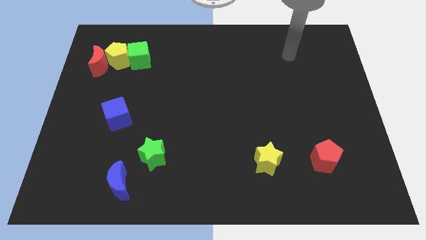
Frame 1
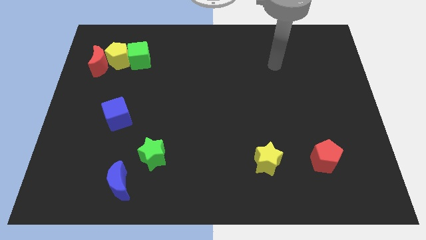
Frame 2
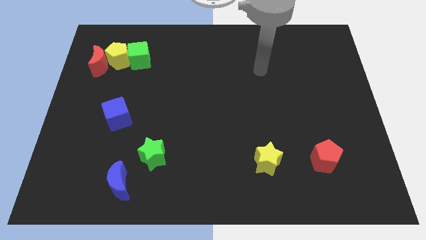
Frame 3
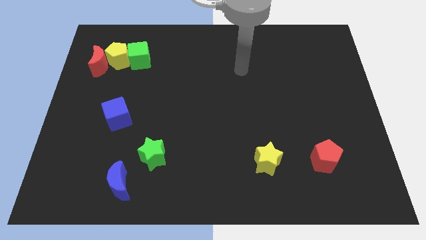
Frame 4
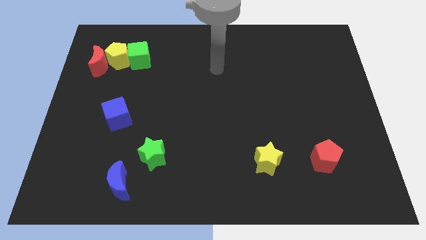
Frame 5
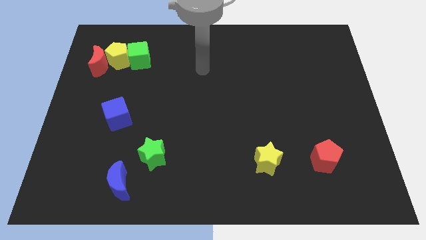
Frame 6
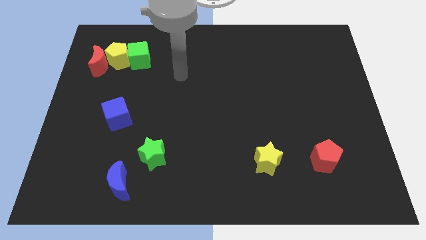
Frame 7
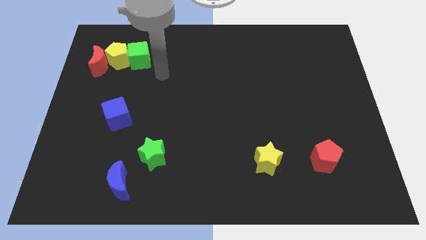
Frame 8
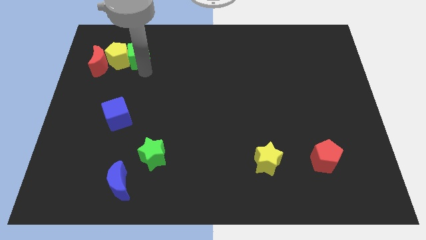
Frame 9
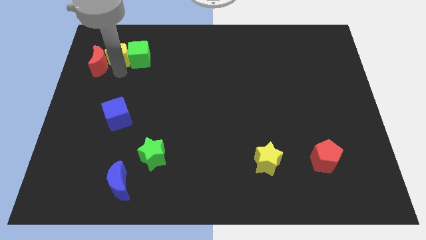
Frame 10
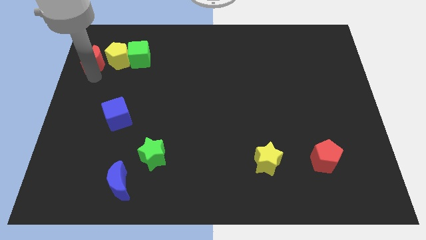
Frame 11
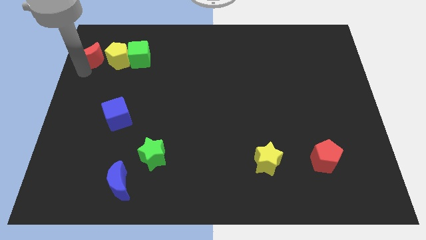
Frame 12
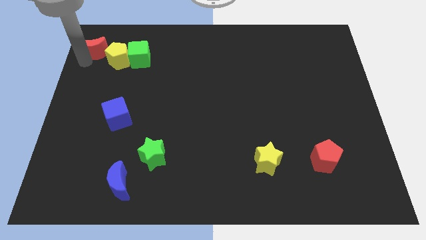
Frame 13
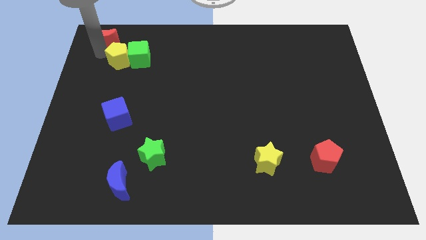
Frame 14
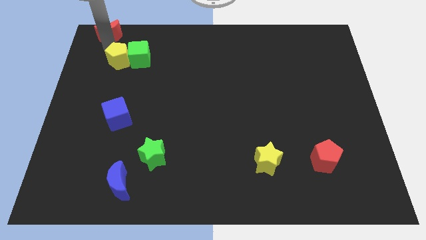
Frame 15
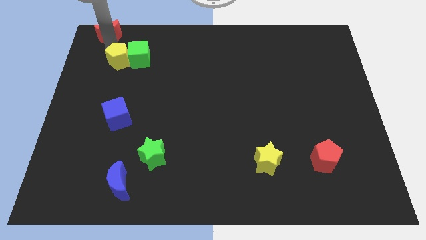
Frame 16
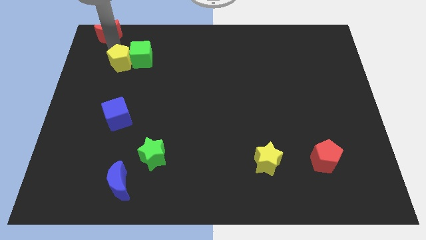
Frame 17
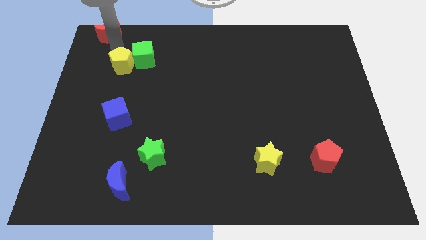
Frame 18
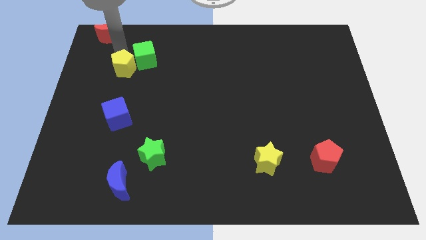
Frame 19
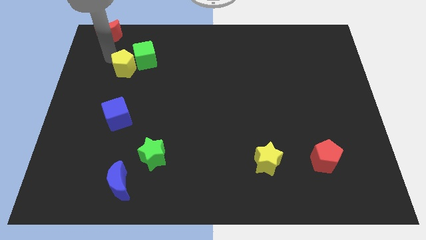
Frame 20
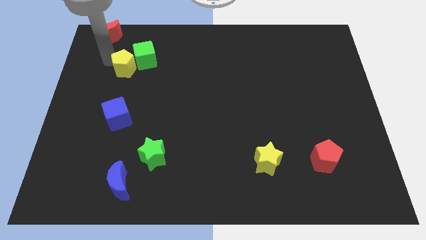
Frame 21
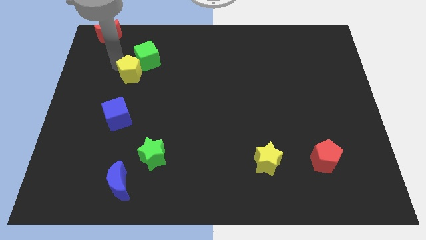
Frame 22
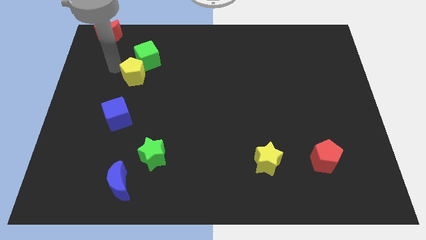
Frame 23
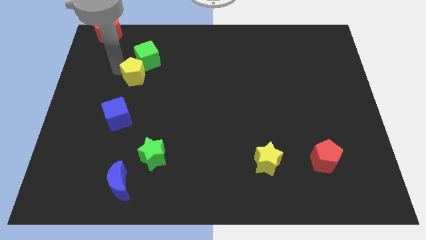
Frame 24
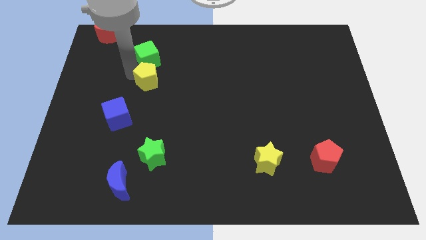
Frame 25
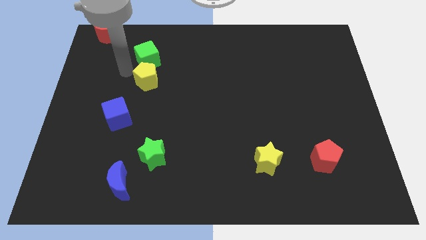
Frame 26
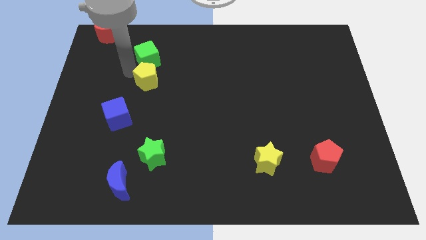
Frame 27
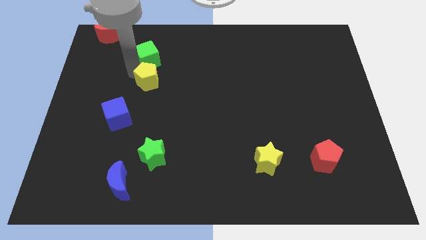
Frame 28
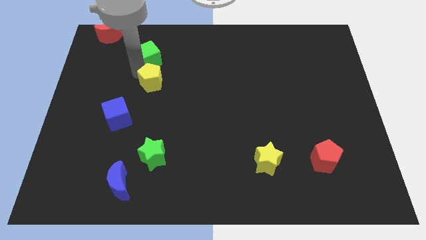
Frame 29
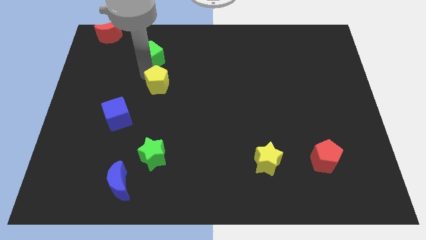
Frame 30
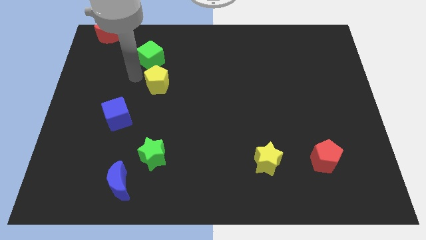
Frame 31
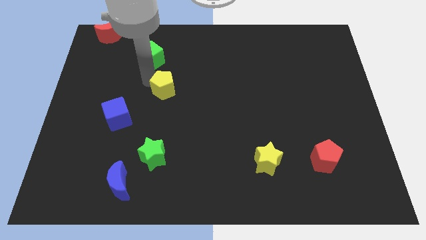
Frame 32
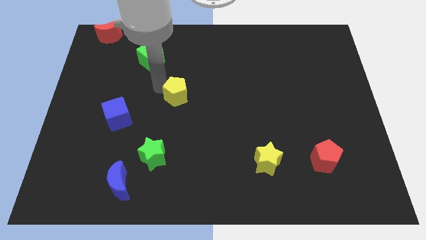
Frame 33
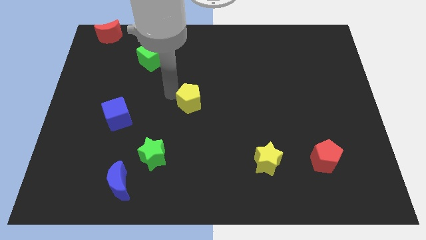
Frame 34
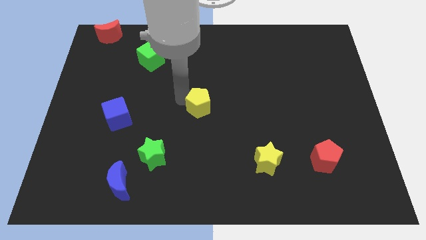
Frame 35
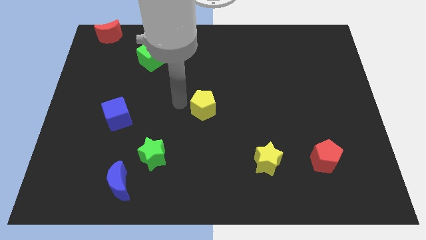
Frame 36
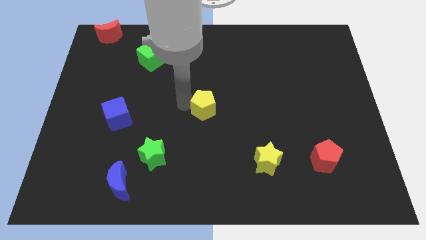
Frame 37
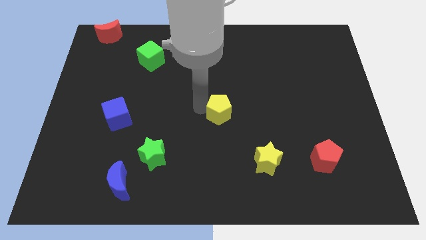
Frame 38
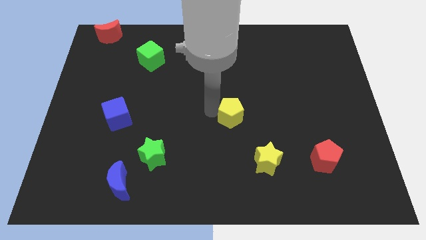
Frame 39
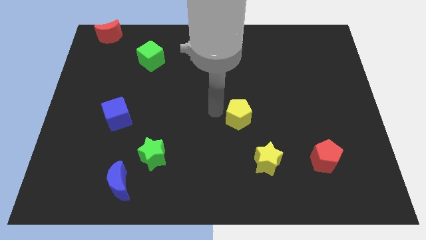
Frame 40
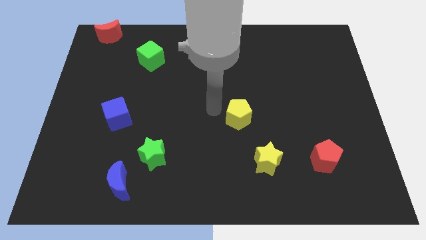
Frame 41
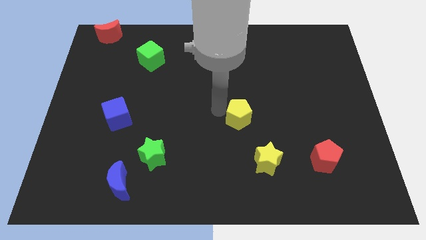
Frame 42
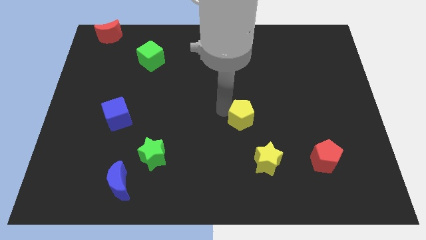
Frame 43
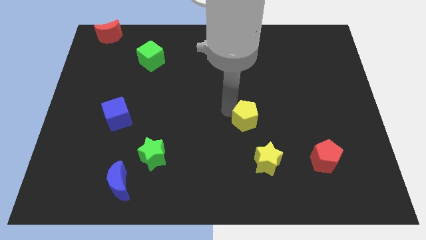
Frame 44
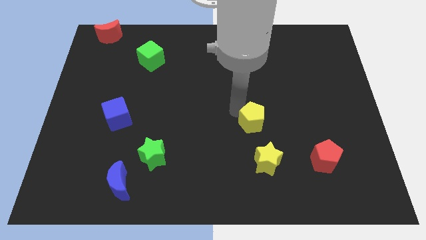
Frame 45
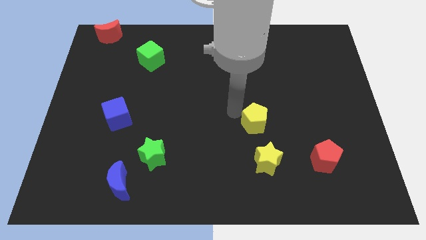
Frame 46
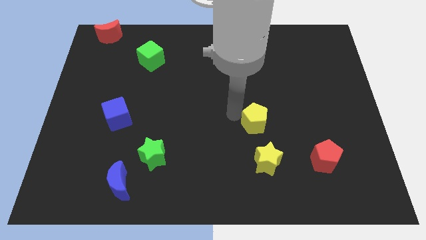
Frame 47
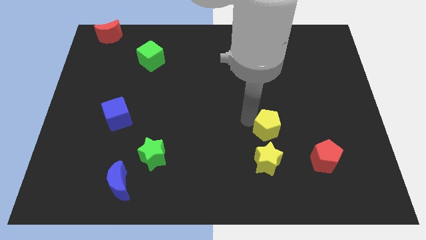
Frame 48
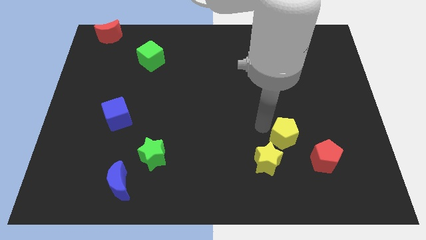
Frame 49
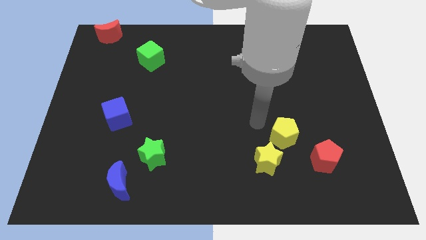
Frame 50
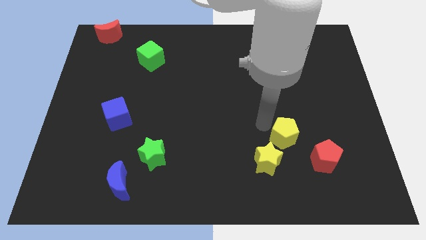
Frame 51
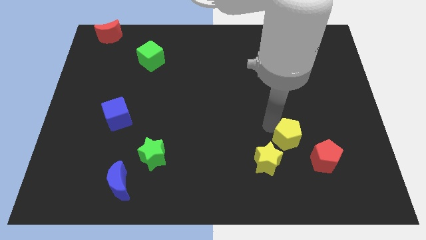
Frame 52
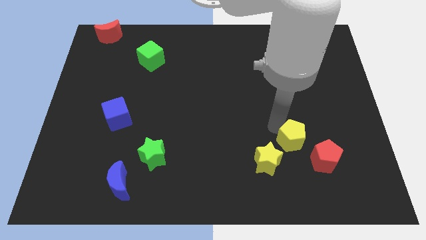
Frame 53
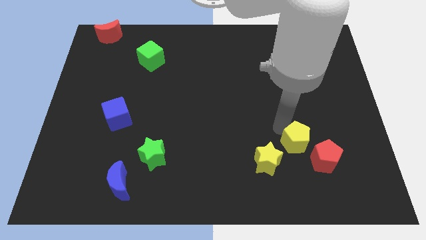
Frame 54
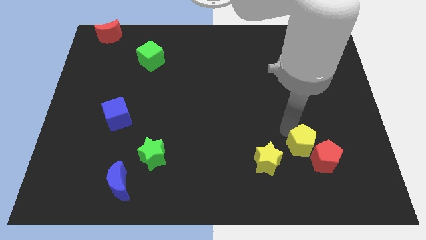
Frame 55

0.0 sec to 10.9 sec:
slide the yellow pentagon towards the red pentagon

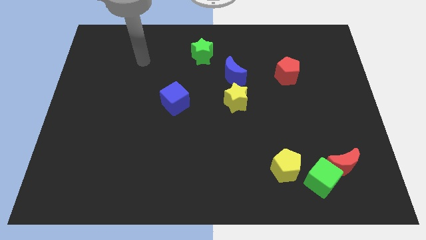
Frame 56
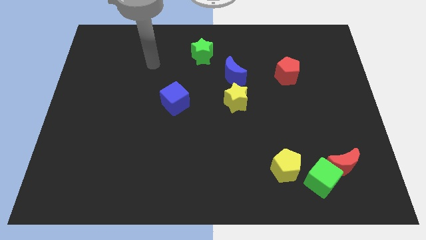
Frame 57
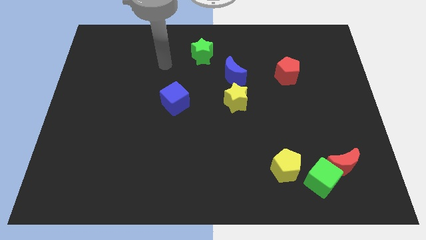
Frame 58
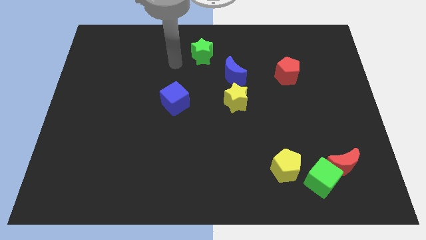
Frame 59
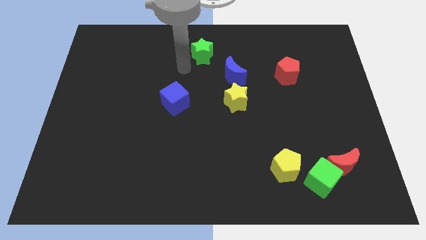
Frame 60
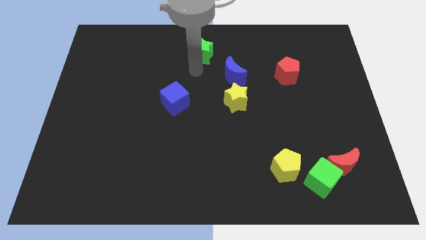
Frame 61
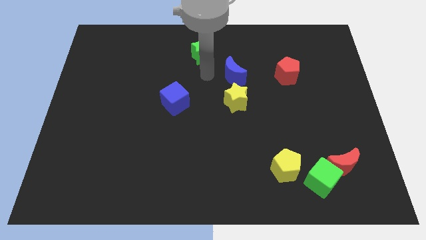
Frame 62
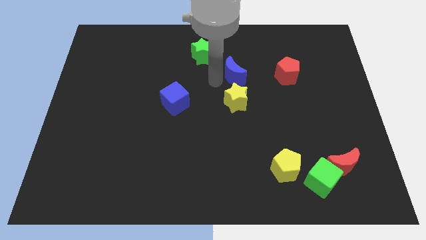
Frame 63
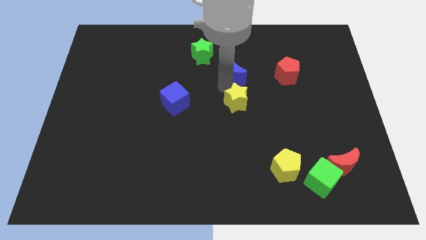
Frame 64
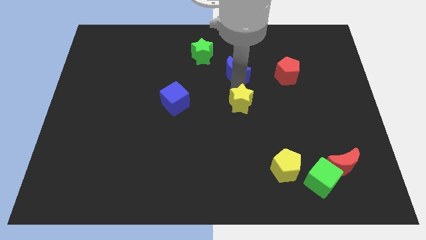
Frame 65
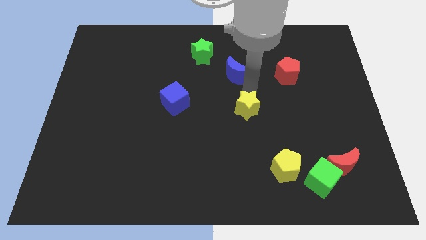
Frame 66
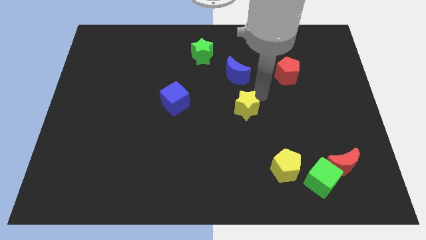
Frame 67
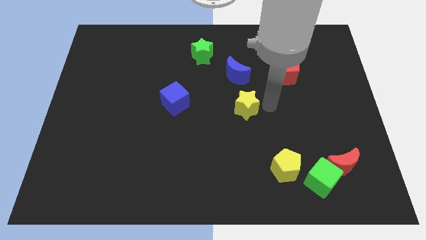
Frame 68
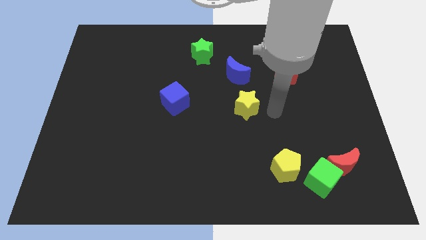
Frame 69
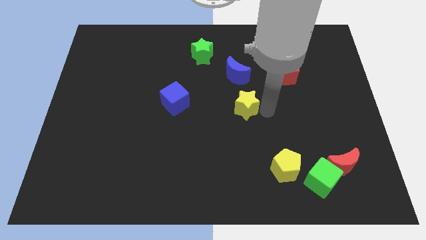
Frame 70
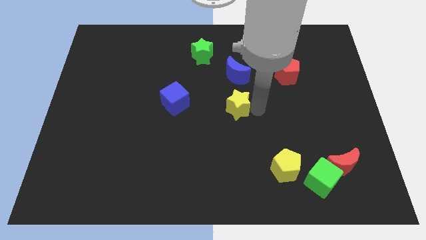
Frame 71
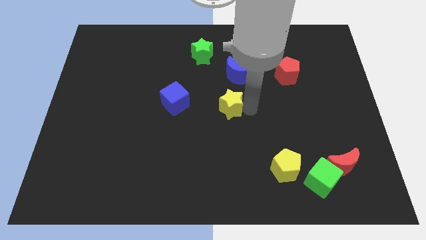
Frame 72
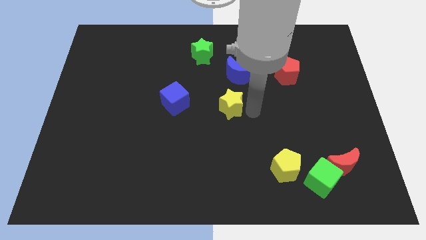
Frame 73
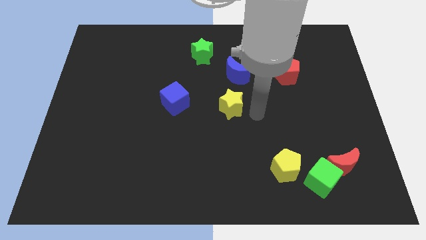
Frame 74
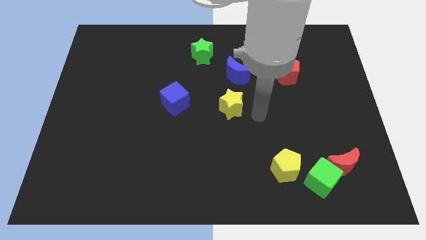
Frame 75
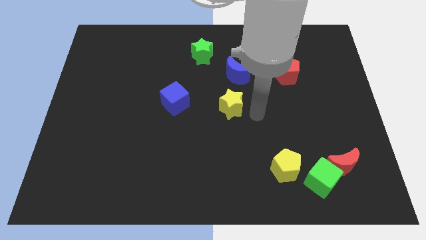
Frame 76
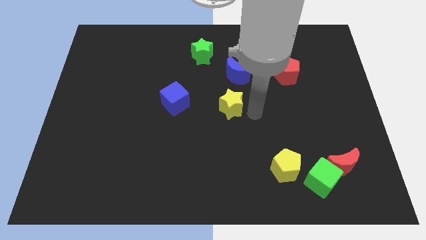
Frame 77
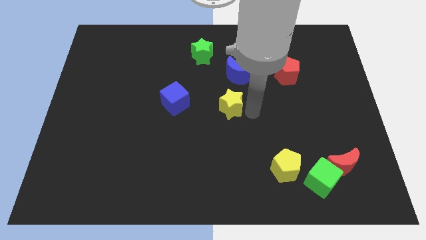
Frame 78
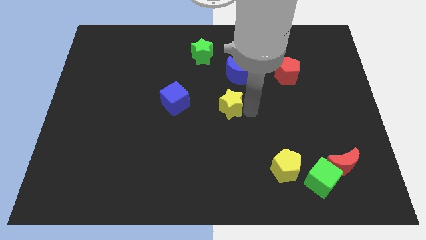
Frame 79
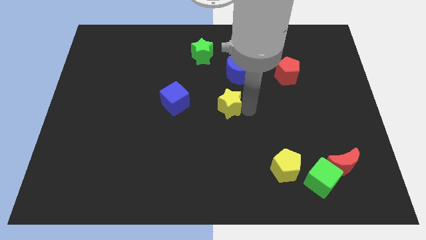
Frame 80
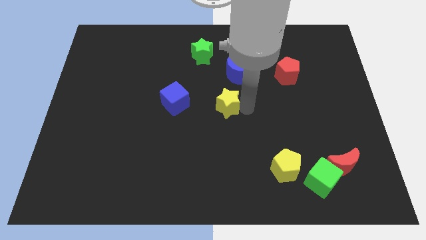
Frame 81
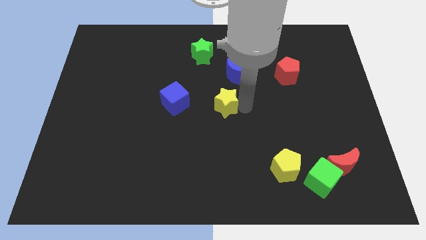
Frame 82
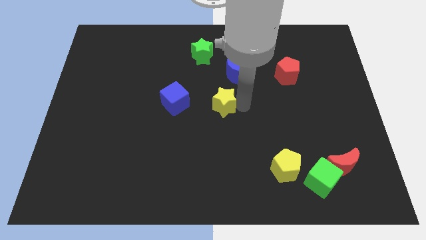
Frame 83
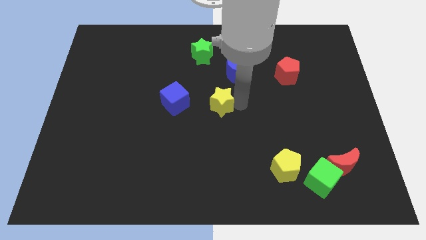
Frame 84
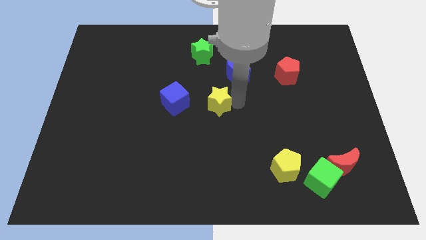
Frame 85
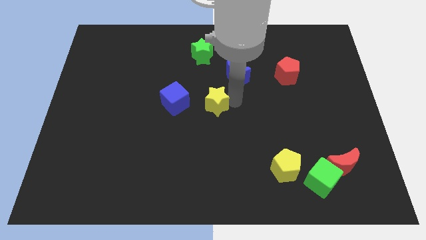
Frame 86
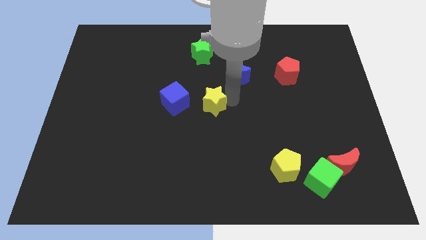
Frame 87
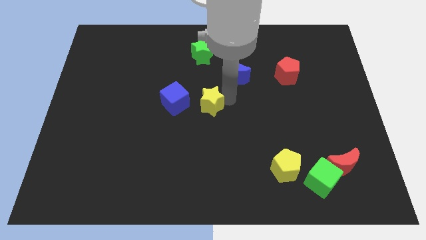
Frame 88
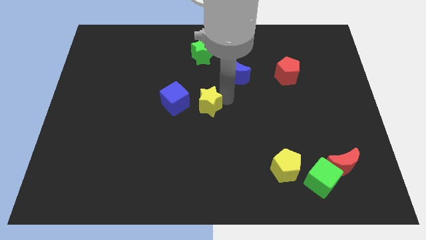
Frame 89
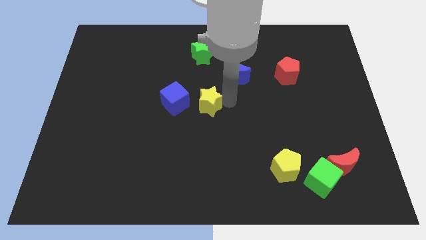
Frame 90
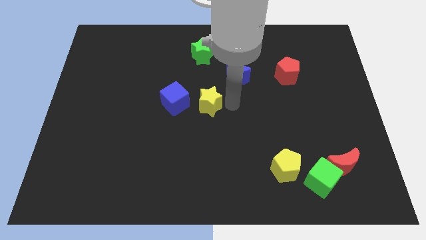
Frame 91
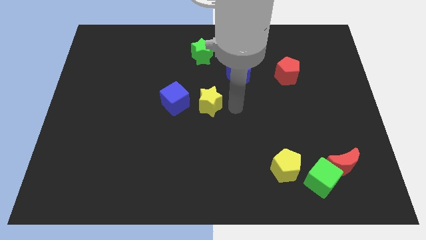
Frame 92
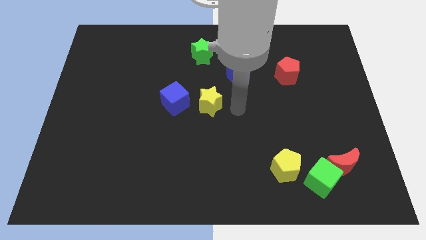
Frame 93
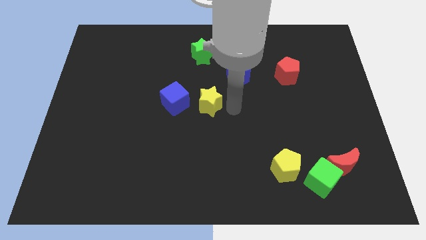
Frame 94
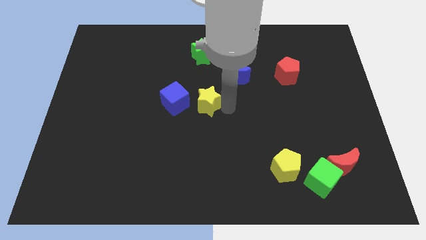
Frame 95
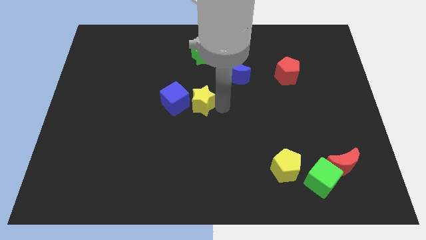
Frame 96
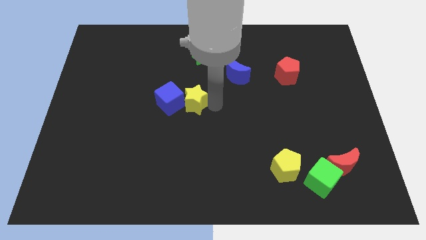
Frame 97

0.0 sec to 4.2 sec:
slide the yellow star to the blue cube
